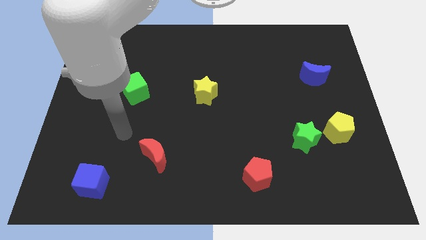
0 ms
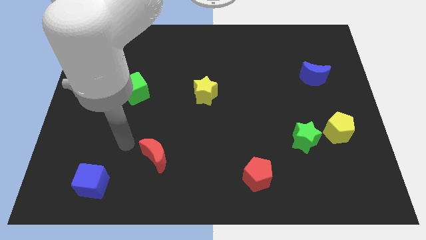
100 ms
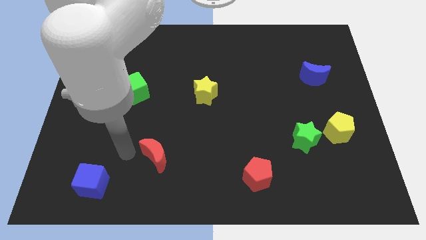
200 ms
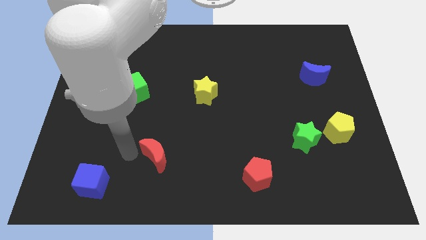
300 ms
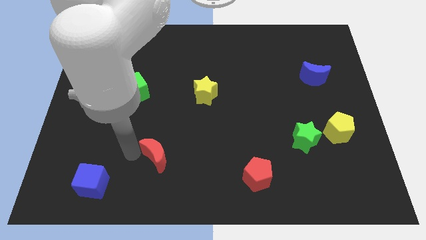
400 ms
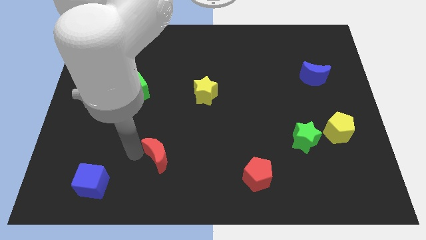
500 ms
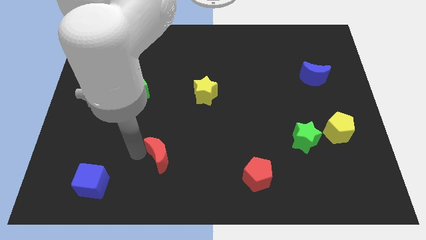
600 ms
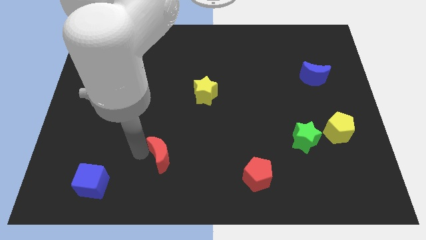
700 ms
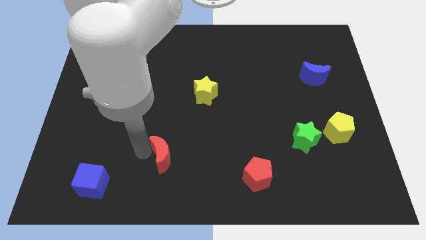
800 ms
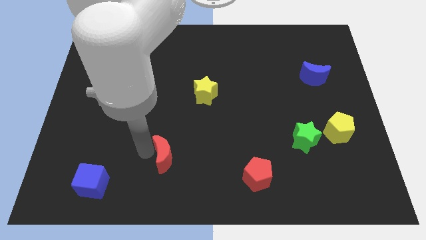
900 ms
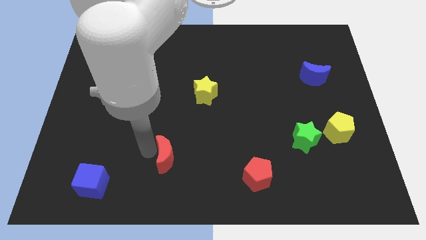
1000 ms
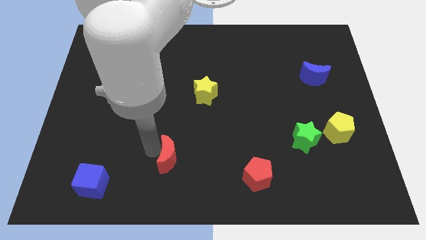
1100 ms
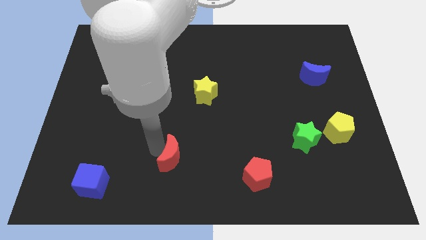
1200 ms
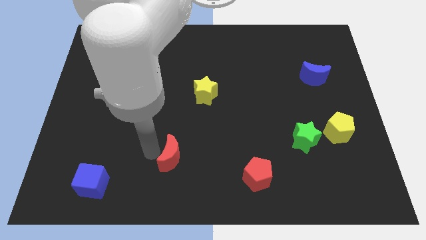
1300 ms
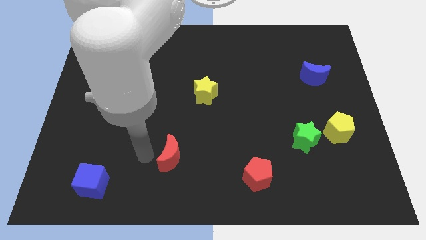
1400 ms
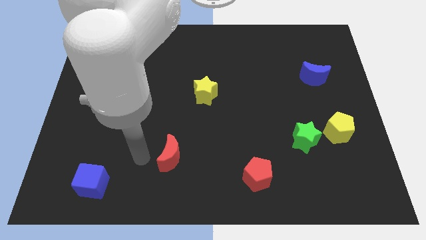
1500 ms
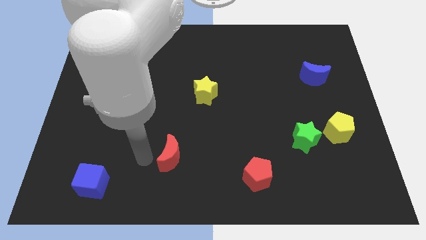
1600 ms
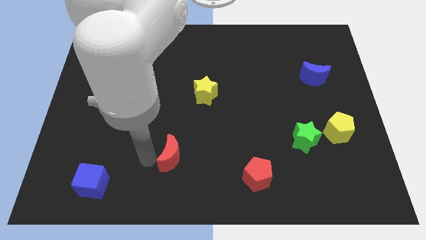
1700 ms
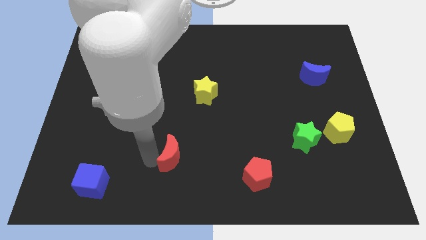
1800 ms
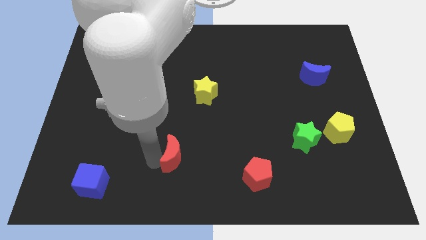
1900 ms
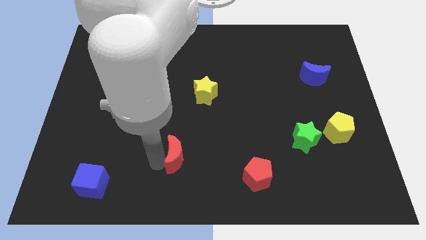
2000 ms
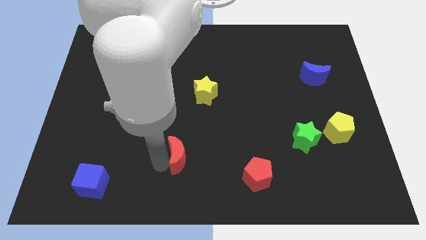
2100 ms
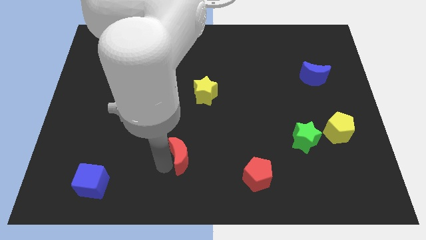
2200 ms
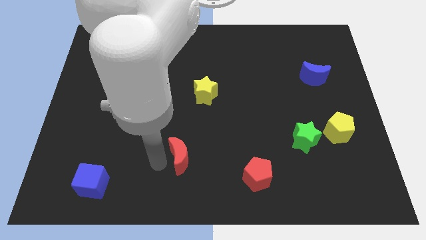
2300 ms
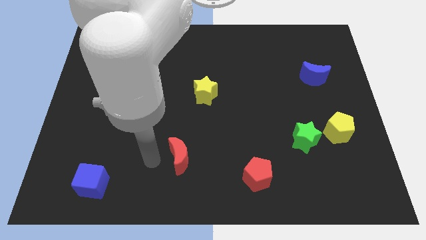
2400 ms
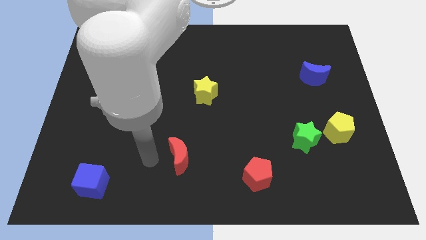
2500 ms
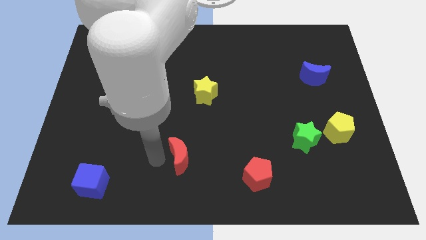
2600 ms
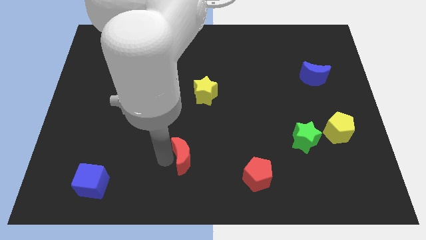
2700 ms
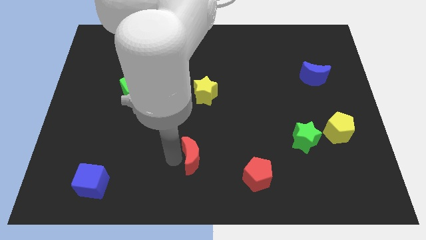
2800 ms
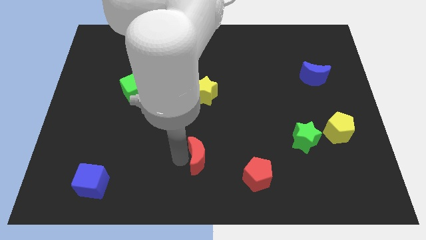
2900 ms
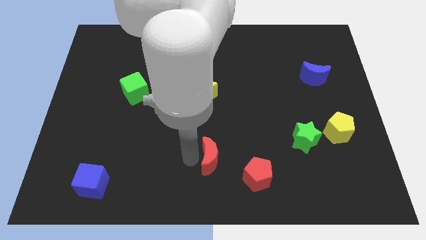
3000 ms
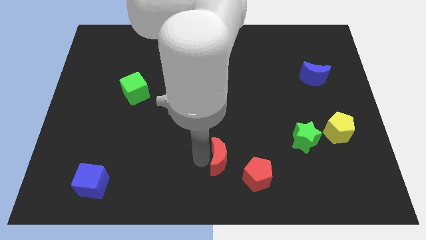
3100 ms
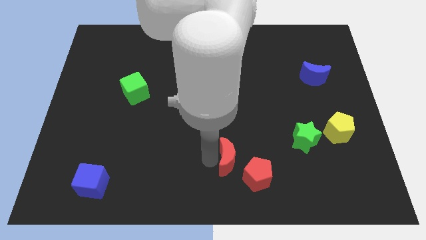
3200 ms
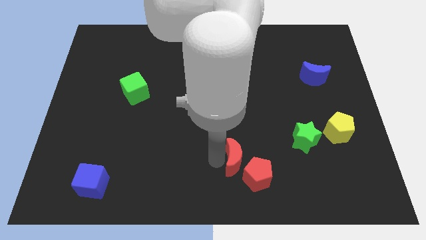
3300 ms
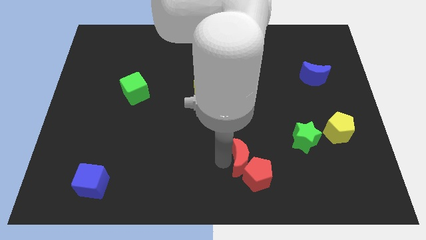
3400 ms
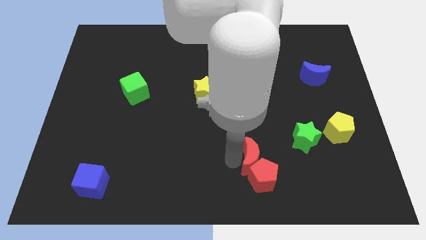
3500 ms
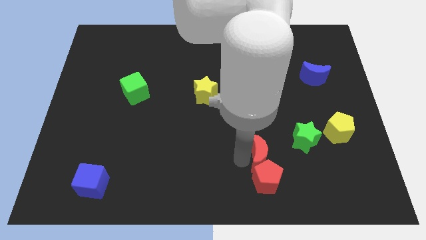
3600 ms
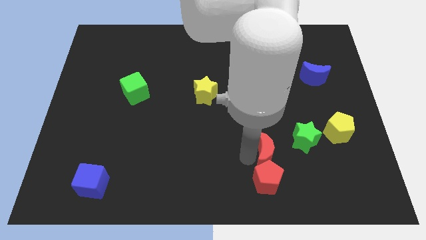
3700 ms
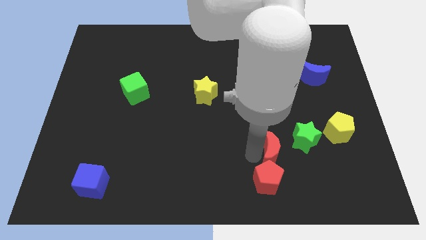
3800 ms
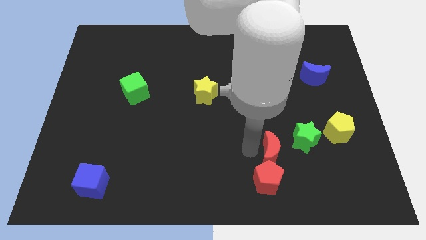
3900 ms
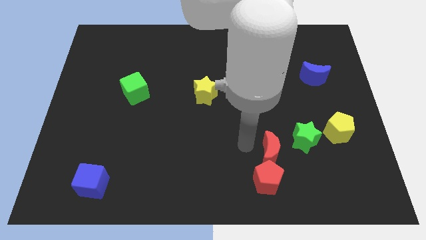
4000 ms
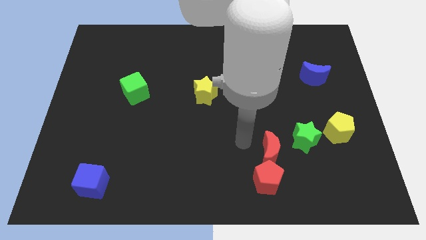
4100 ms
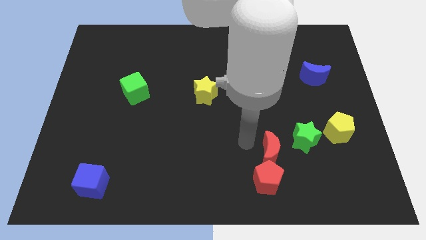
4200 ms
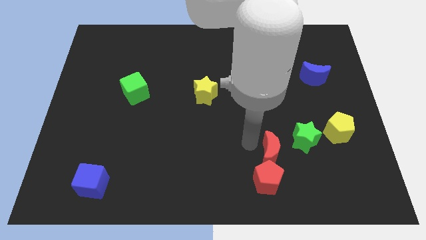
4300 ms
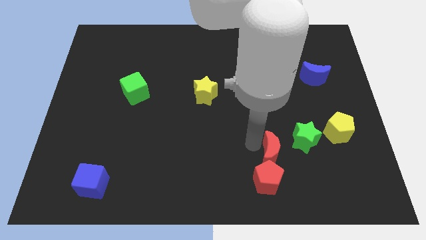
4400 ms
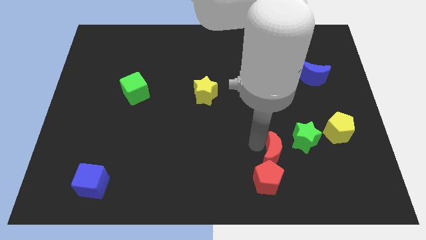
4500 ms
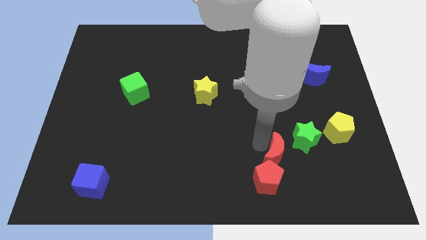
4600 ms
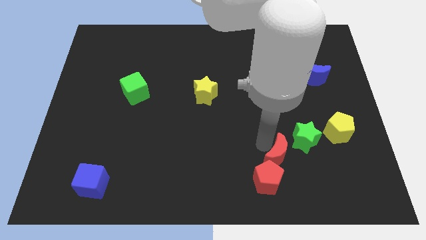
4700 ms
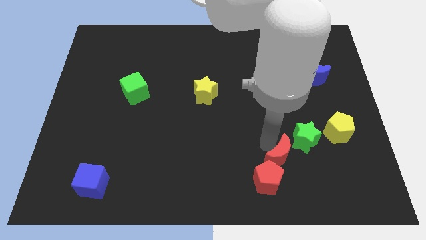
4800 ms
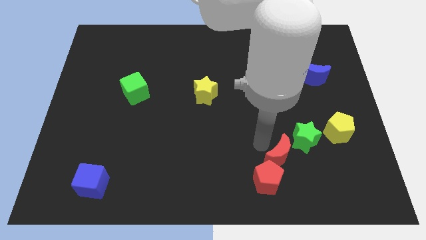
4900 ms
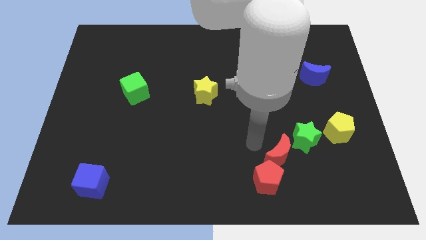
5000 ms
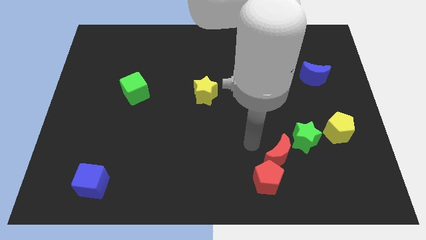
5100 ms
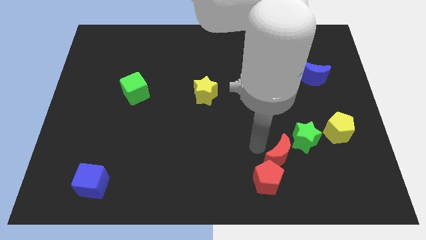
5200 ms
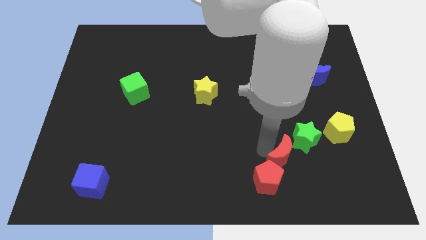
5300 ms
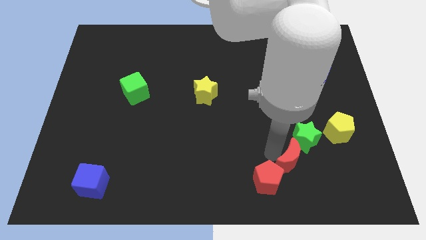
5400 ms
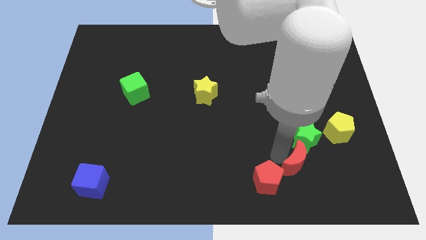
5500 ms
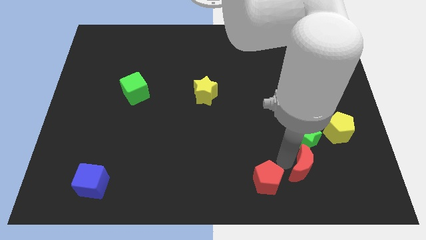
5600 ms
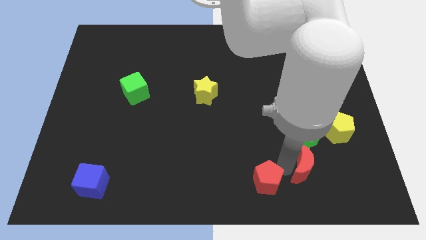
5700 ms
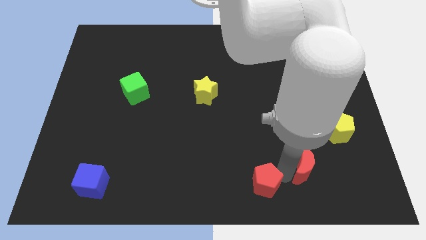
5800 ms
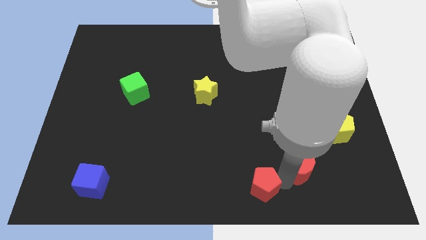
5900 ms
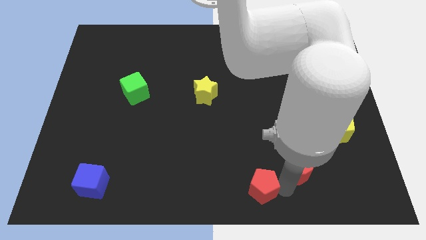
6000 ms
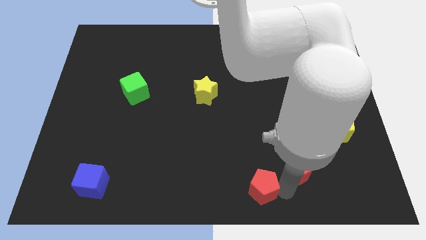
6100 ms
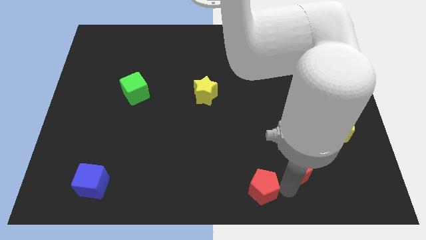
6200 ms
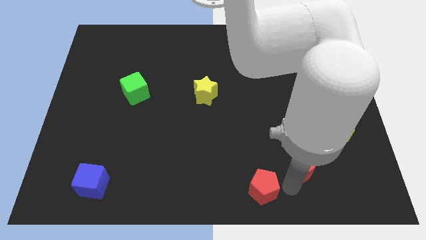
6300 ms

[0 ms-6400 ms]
move the red moon to the bottom left of the yellow pentagon
